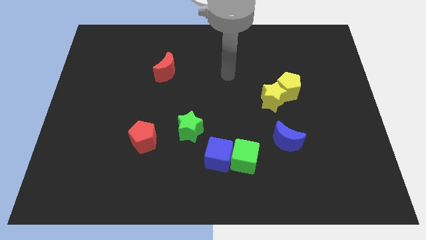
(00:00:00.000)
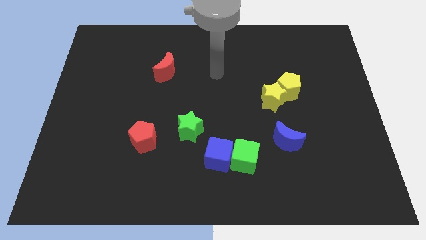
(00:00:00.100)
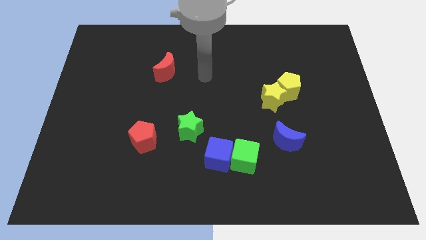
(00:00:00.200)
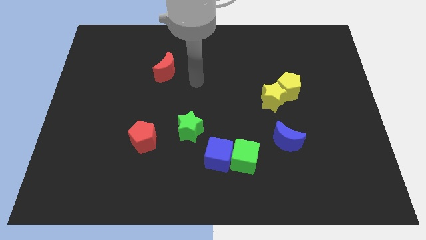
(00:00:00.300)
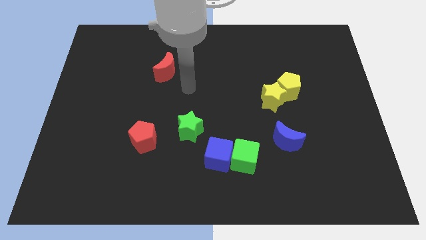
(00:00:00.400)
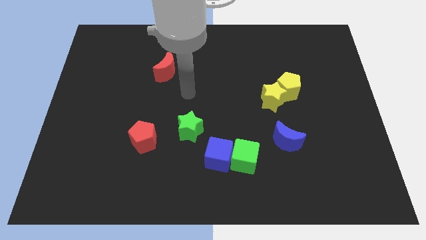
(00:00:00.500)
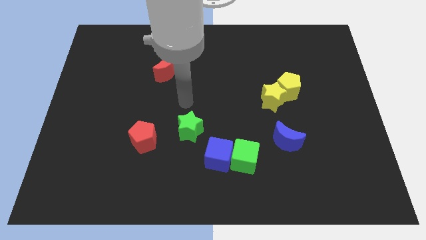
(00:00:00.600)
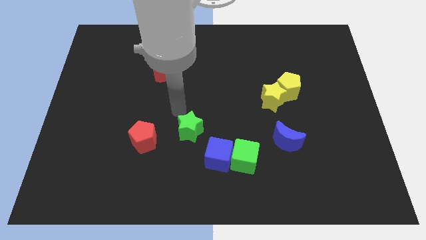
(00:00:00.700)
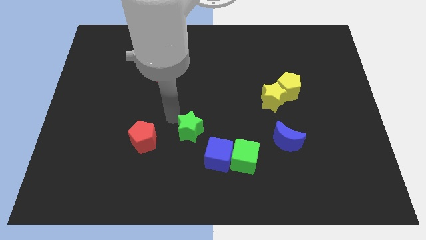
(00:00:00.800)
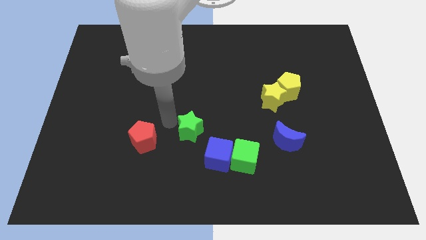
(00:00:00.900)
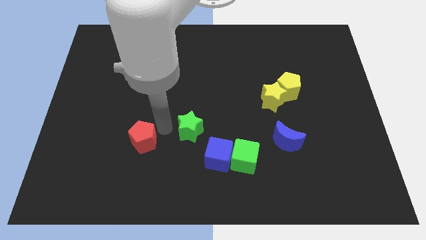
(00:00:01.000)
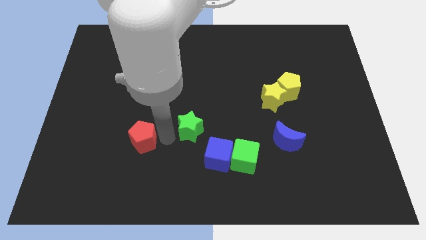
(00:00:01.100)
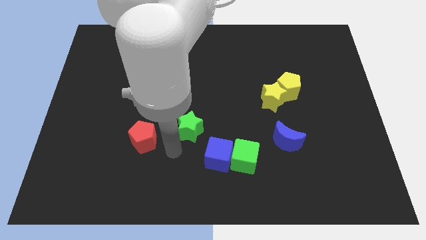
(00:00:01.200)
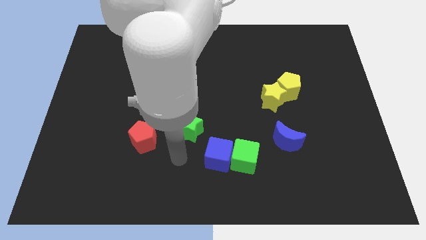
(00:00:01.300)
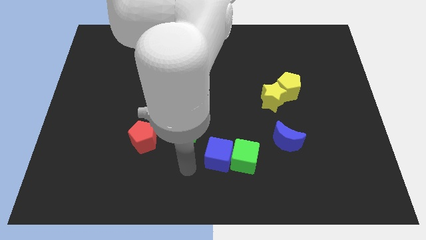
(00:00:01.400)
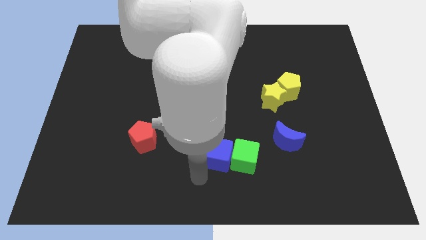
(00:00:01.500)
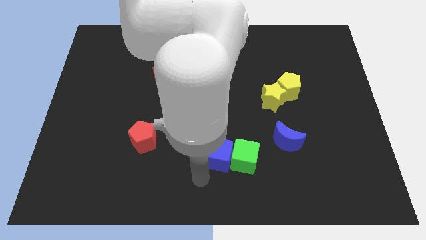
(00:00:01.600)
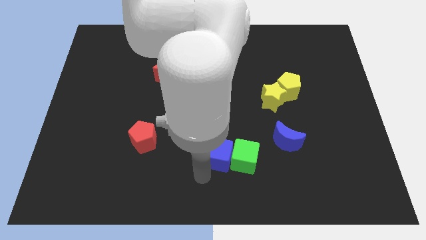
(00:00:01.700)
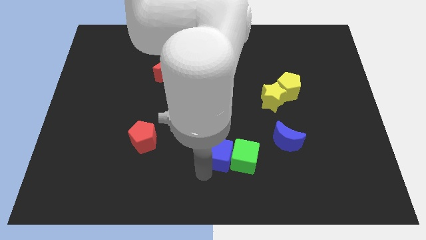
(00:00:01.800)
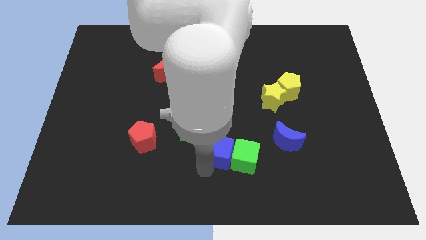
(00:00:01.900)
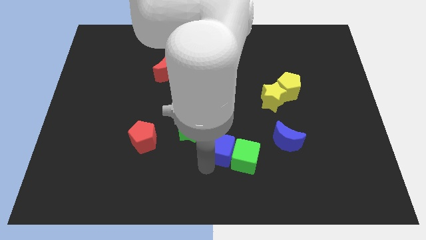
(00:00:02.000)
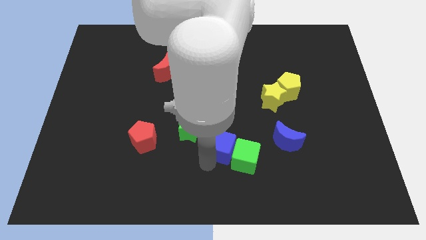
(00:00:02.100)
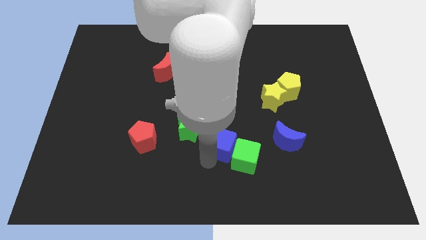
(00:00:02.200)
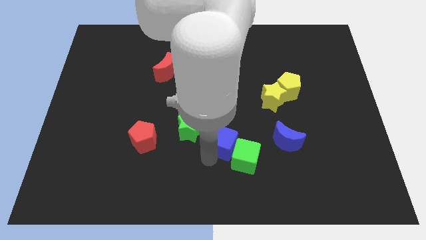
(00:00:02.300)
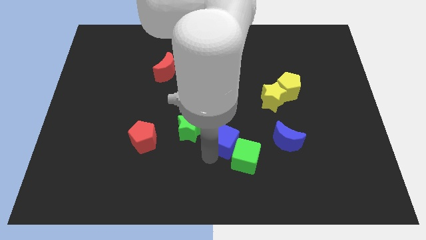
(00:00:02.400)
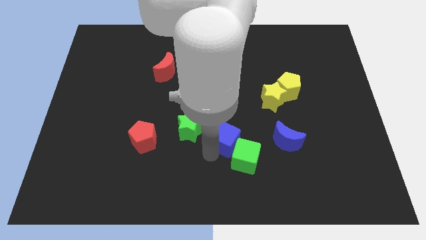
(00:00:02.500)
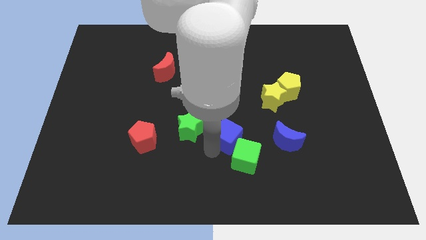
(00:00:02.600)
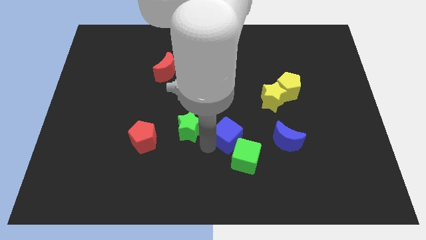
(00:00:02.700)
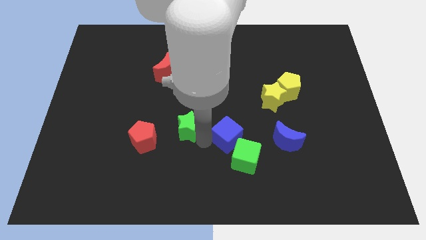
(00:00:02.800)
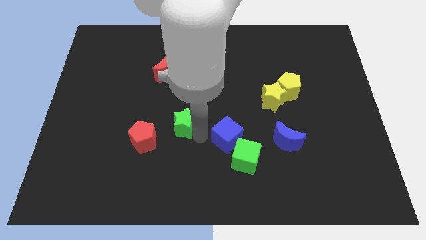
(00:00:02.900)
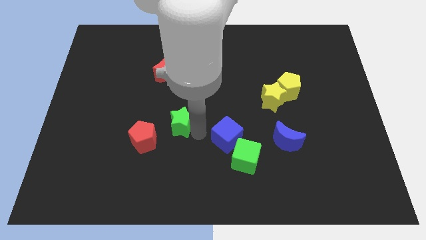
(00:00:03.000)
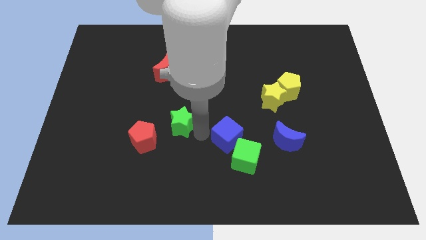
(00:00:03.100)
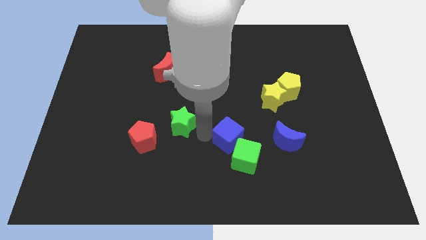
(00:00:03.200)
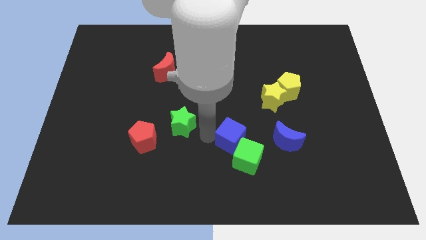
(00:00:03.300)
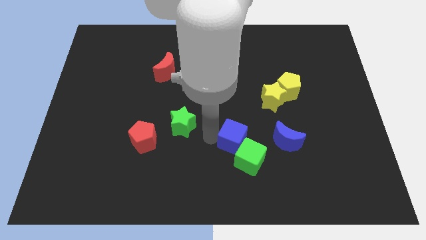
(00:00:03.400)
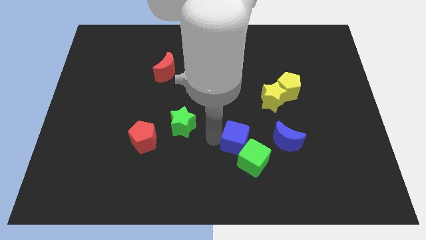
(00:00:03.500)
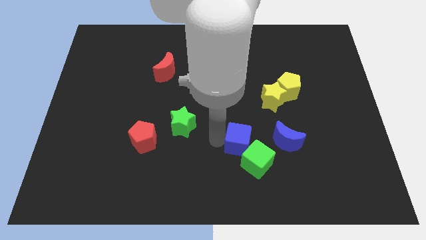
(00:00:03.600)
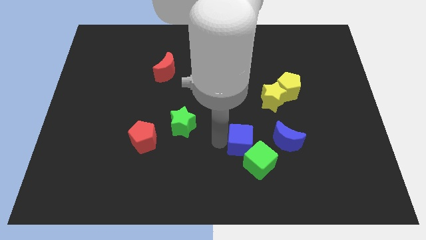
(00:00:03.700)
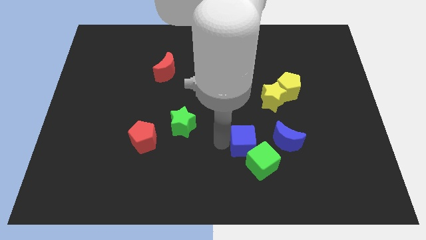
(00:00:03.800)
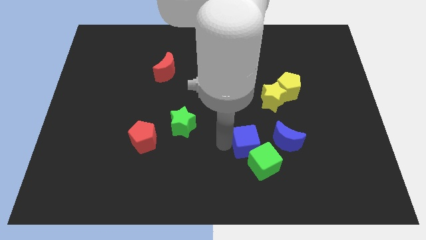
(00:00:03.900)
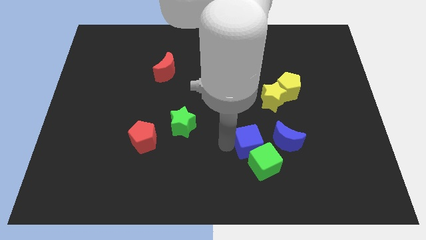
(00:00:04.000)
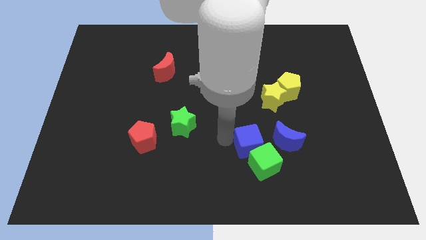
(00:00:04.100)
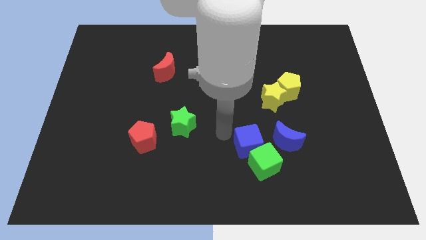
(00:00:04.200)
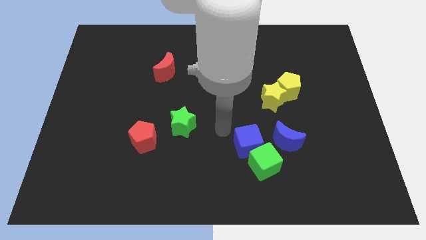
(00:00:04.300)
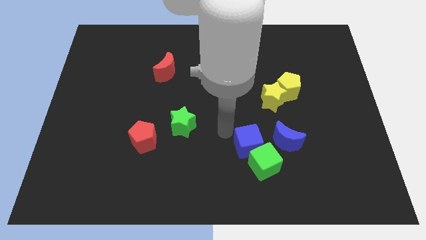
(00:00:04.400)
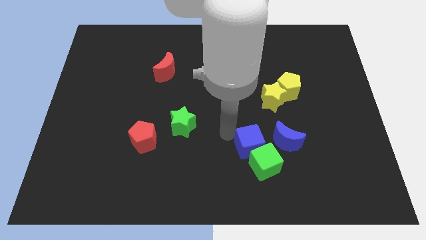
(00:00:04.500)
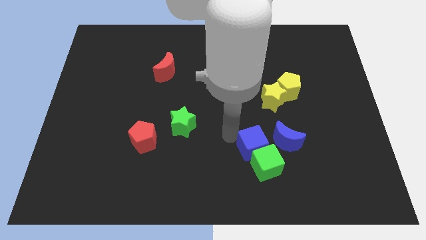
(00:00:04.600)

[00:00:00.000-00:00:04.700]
slightly push the blue cube to the right

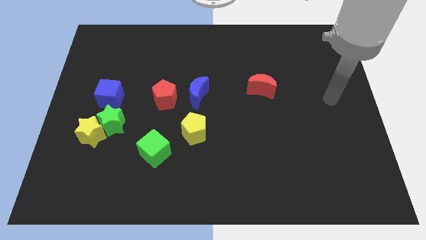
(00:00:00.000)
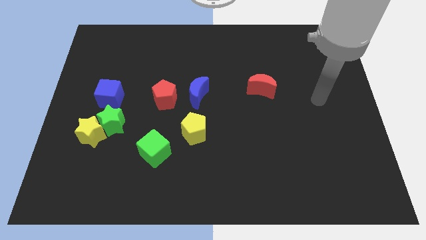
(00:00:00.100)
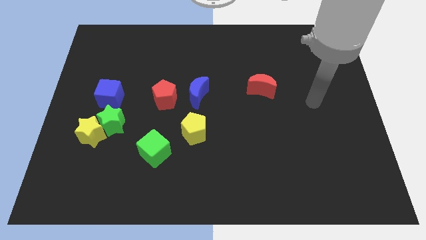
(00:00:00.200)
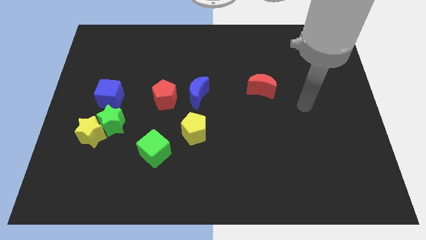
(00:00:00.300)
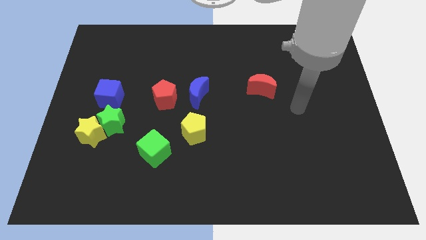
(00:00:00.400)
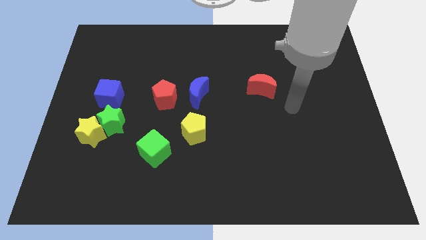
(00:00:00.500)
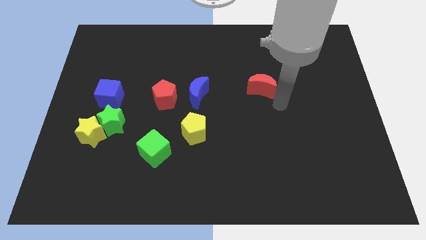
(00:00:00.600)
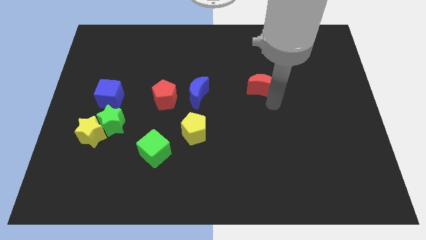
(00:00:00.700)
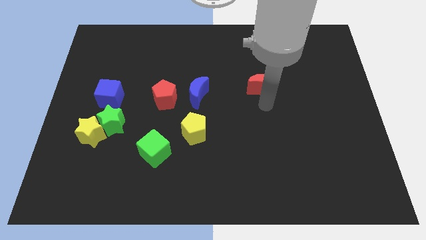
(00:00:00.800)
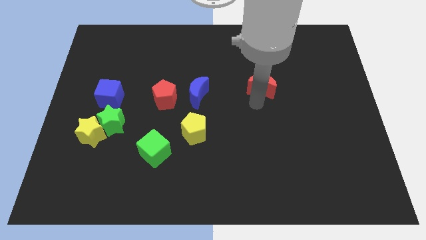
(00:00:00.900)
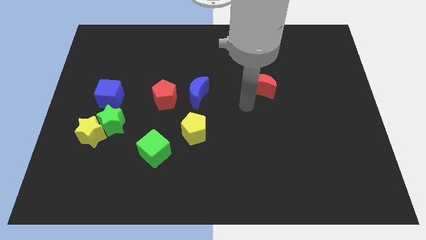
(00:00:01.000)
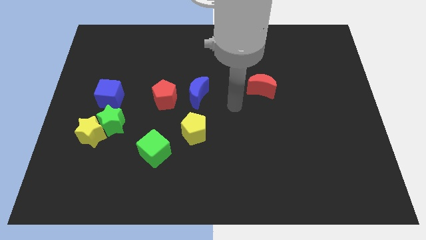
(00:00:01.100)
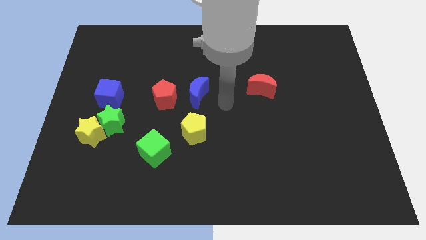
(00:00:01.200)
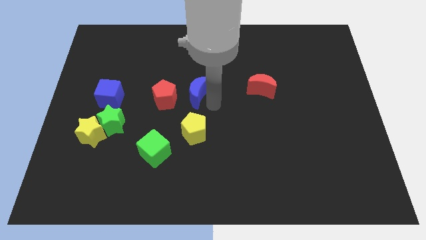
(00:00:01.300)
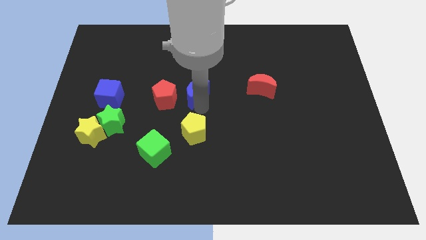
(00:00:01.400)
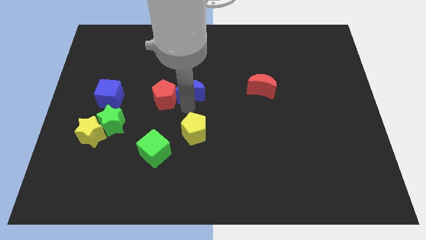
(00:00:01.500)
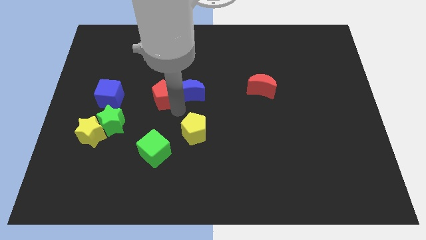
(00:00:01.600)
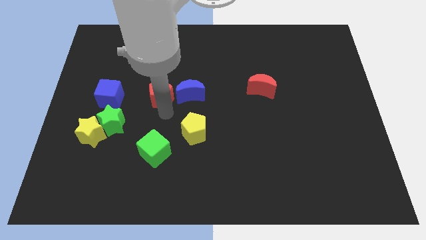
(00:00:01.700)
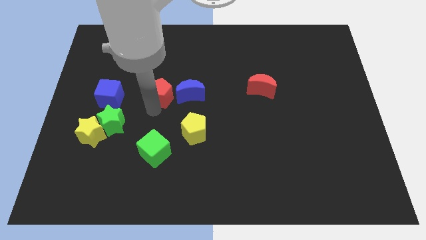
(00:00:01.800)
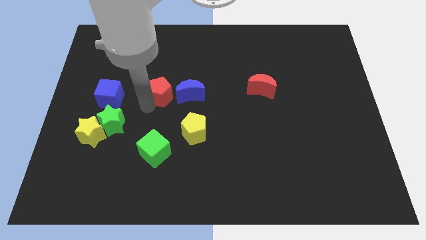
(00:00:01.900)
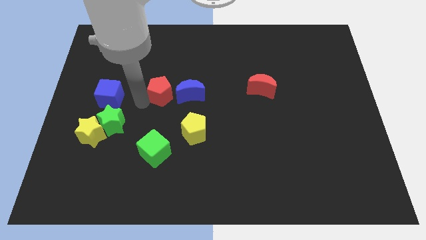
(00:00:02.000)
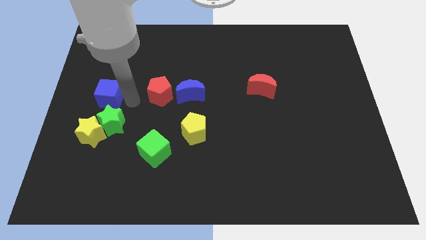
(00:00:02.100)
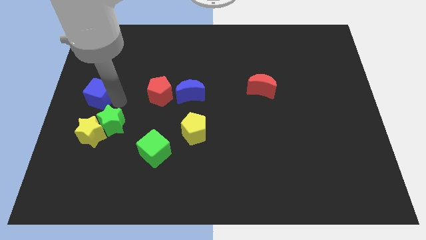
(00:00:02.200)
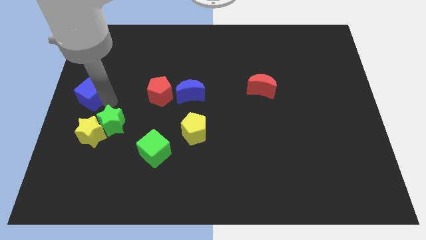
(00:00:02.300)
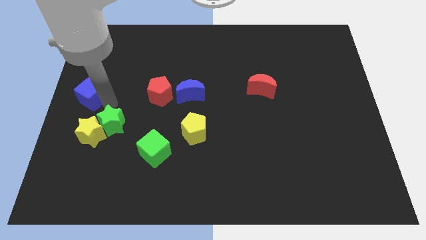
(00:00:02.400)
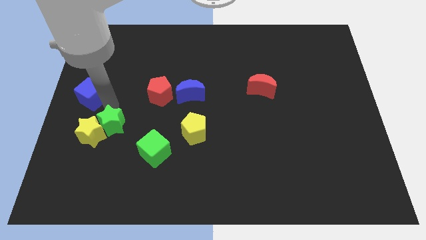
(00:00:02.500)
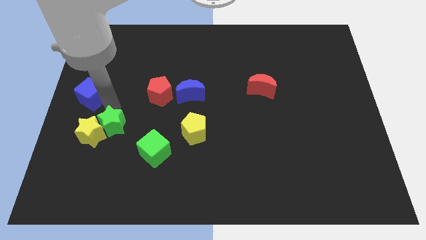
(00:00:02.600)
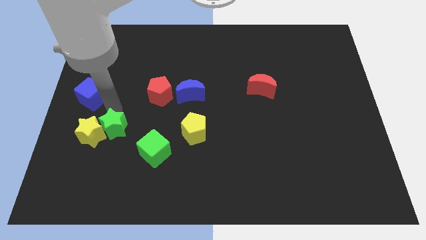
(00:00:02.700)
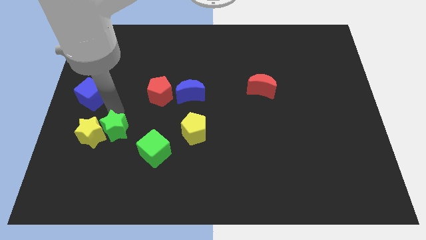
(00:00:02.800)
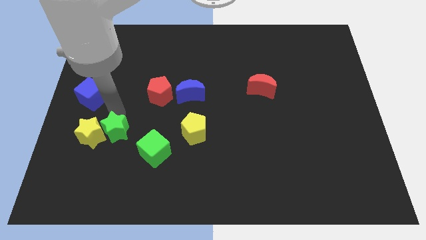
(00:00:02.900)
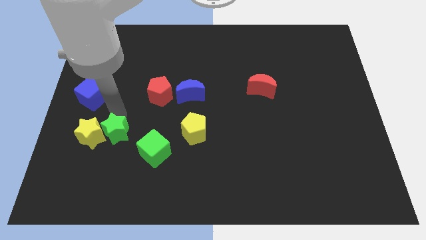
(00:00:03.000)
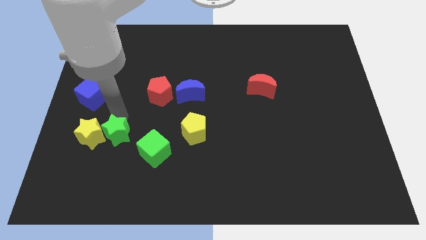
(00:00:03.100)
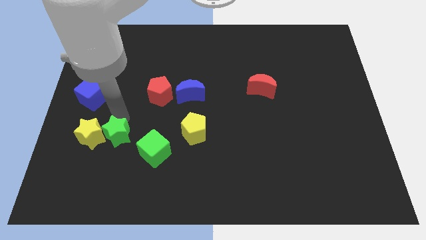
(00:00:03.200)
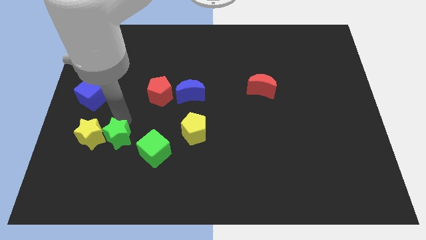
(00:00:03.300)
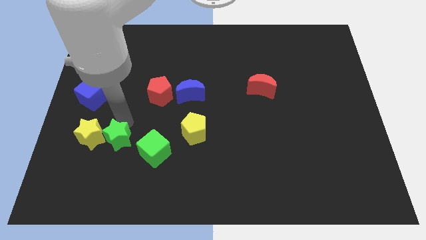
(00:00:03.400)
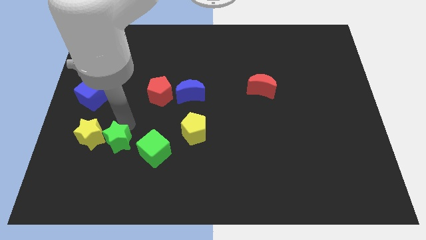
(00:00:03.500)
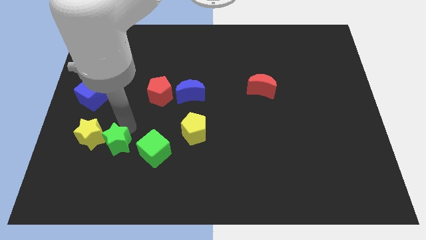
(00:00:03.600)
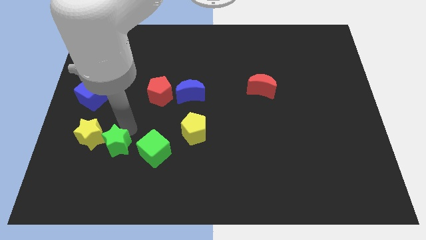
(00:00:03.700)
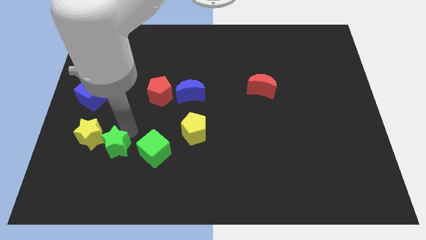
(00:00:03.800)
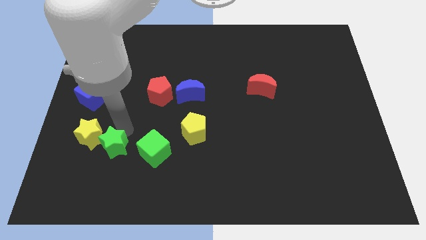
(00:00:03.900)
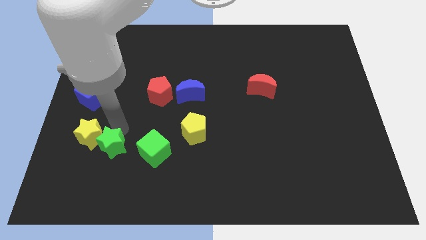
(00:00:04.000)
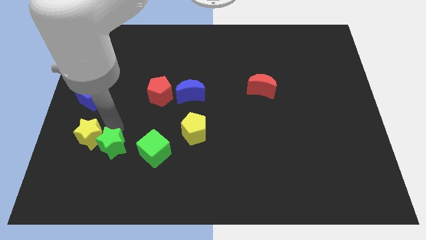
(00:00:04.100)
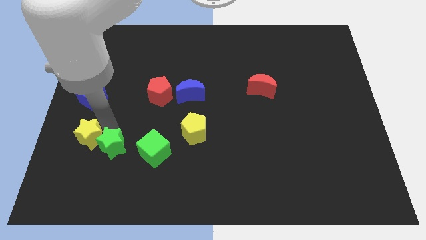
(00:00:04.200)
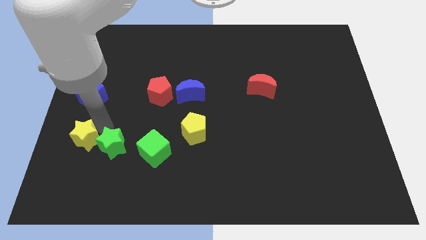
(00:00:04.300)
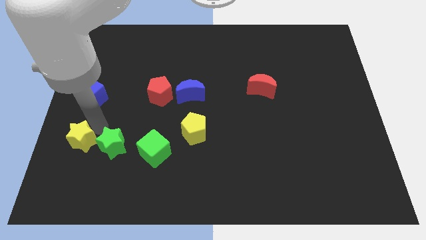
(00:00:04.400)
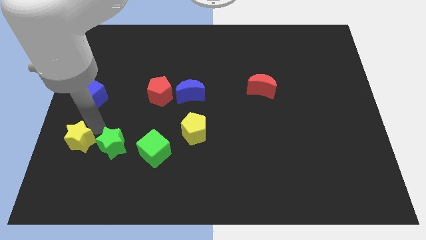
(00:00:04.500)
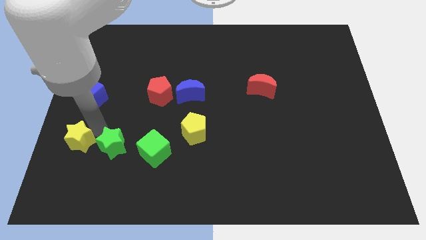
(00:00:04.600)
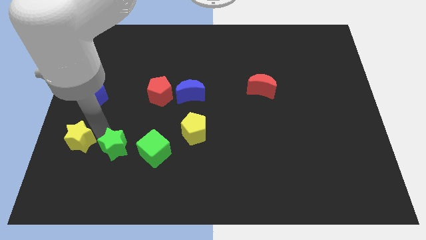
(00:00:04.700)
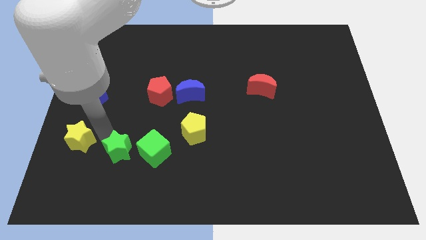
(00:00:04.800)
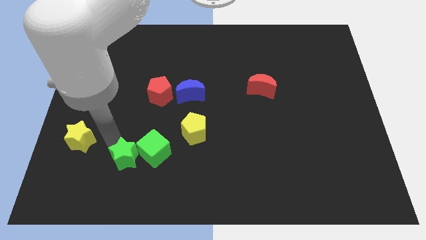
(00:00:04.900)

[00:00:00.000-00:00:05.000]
slide the green star diagonally downwards and right a little
